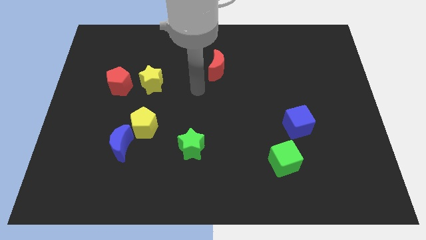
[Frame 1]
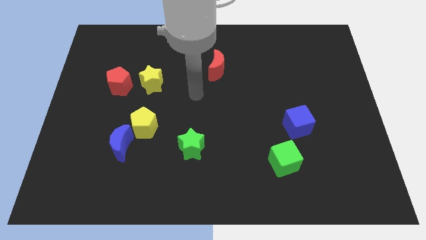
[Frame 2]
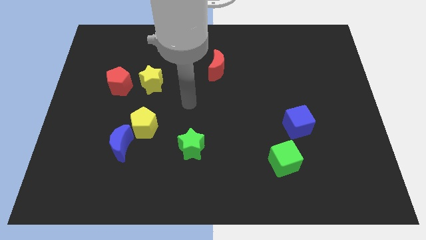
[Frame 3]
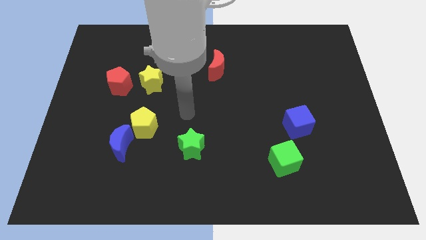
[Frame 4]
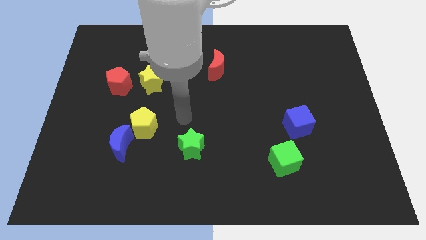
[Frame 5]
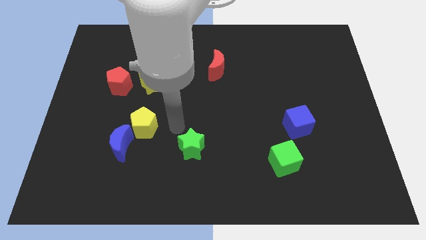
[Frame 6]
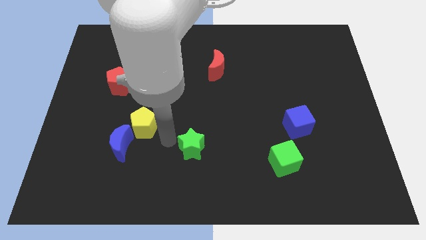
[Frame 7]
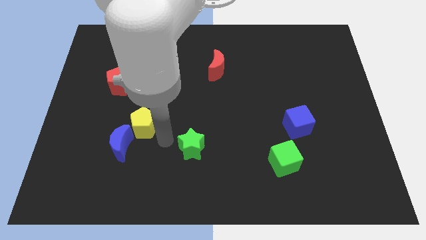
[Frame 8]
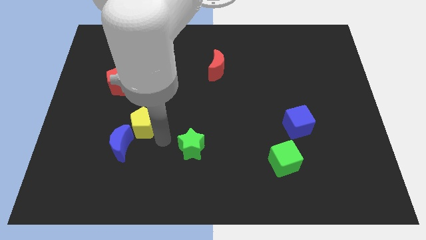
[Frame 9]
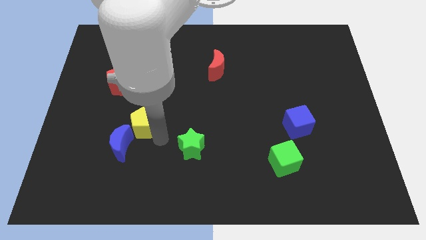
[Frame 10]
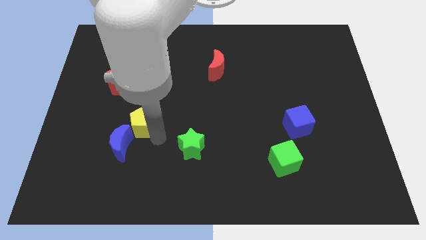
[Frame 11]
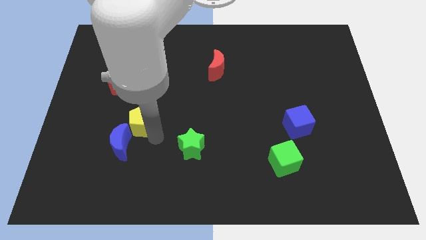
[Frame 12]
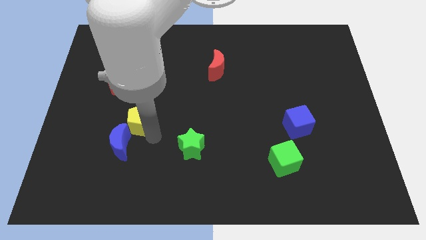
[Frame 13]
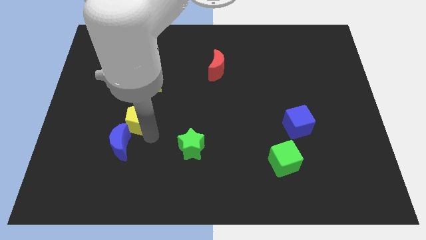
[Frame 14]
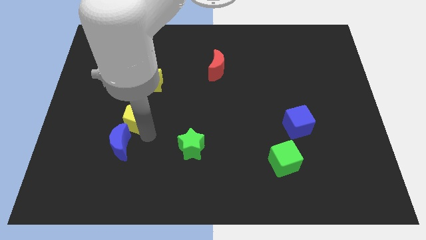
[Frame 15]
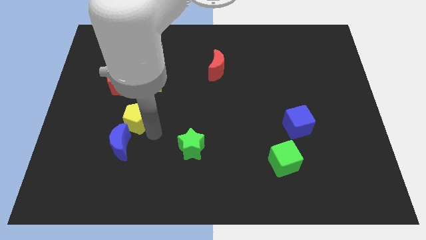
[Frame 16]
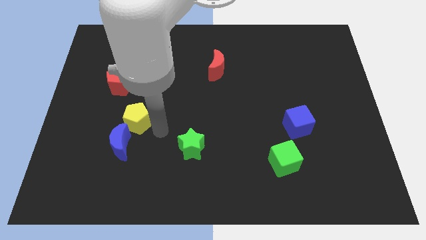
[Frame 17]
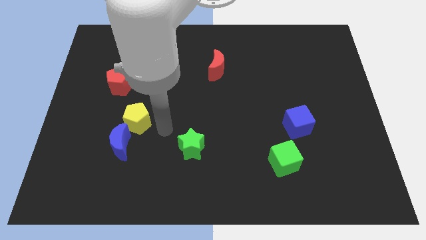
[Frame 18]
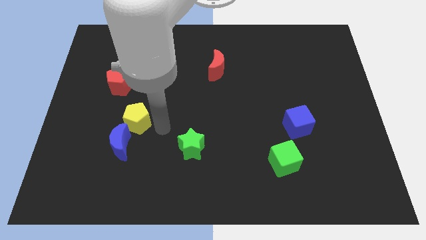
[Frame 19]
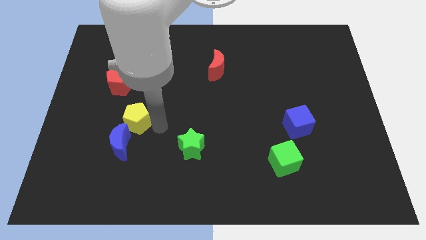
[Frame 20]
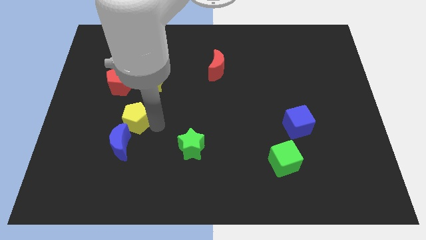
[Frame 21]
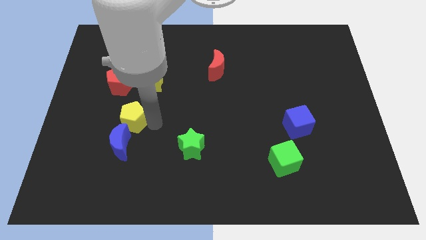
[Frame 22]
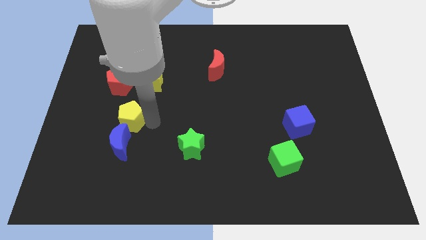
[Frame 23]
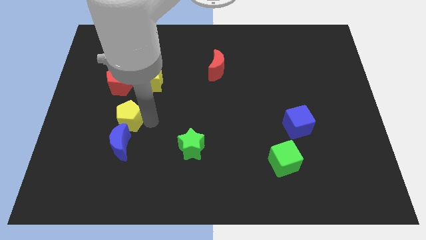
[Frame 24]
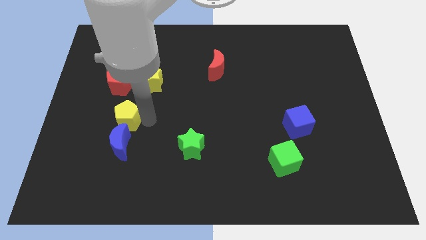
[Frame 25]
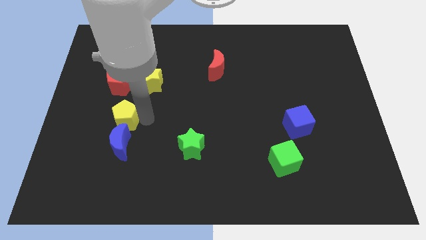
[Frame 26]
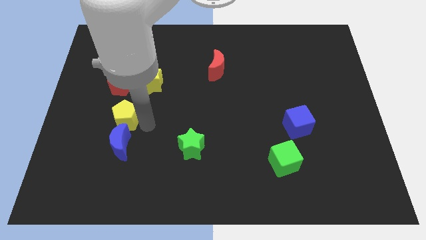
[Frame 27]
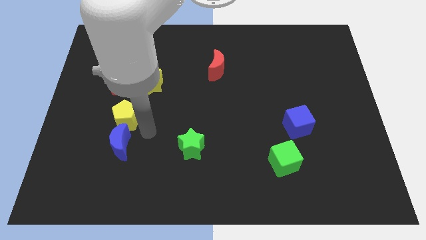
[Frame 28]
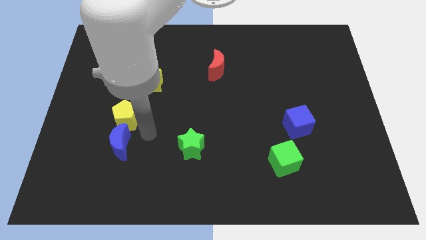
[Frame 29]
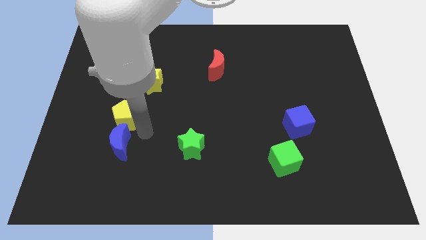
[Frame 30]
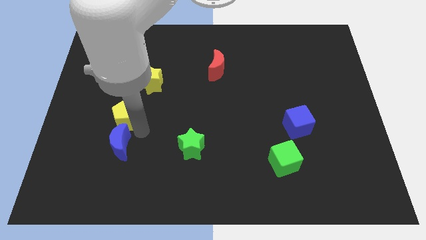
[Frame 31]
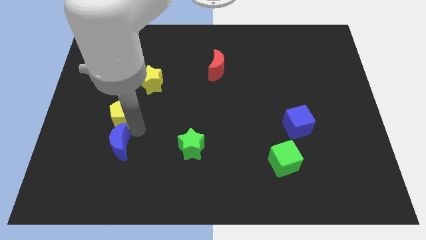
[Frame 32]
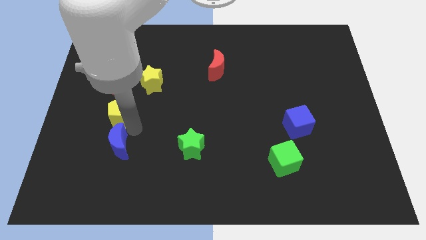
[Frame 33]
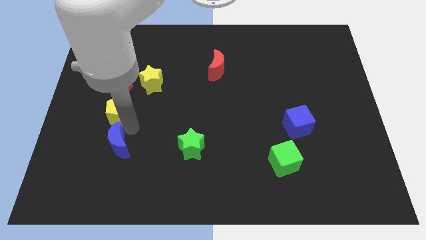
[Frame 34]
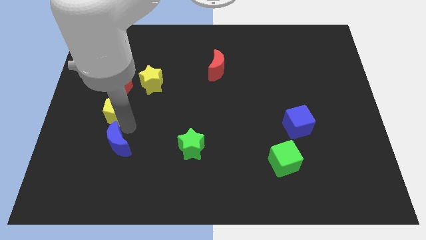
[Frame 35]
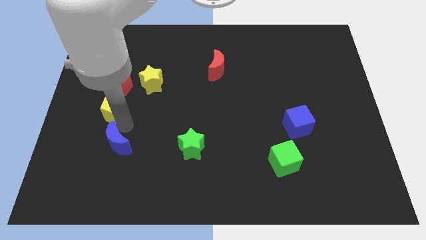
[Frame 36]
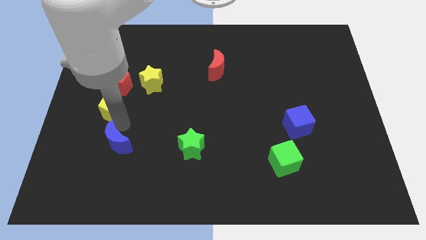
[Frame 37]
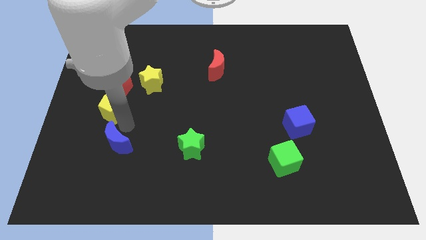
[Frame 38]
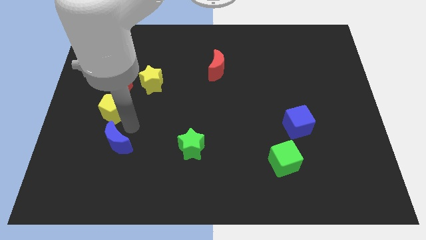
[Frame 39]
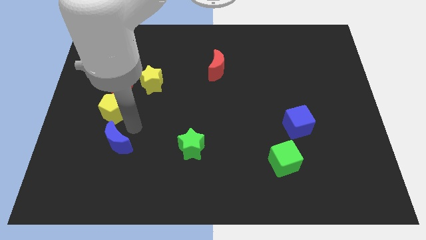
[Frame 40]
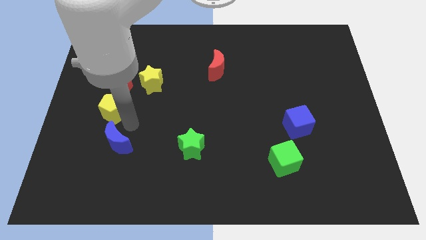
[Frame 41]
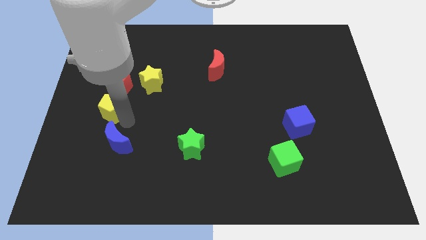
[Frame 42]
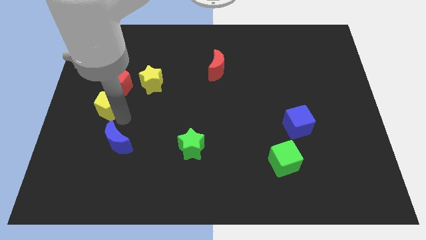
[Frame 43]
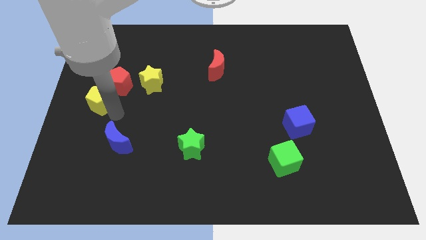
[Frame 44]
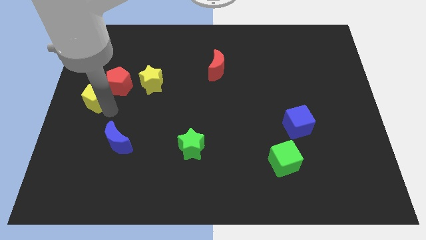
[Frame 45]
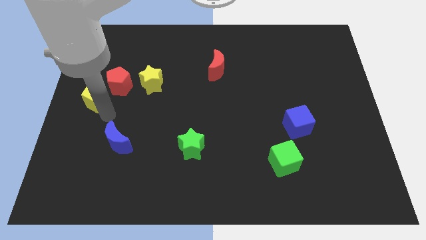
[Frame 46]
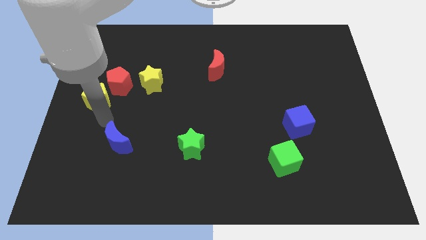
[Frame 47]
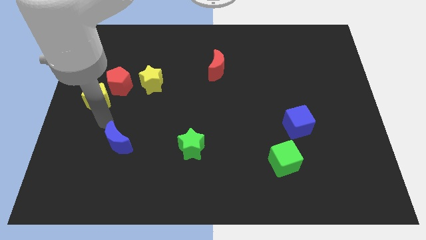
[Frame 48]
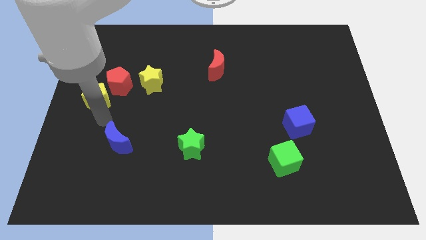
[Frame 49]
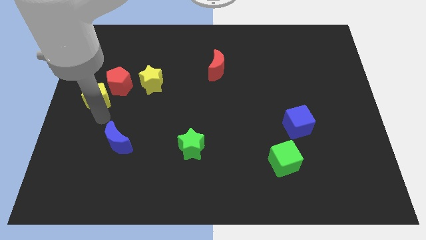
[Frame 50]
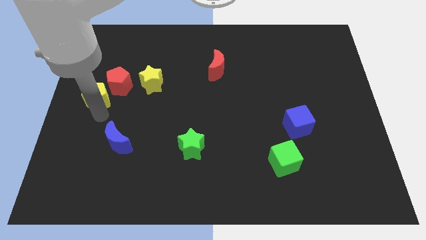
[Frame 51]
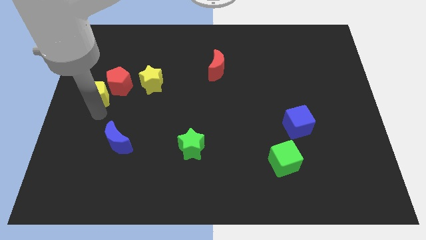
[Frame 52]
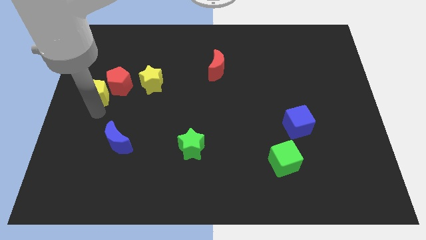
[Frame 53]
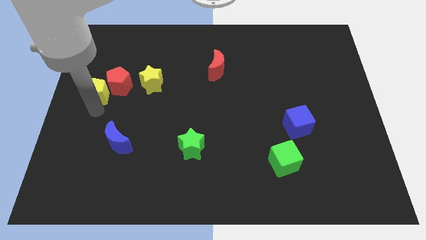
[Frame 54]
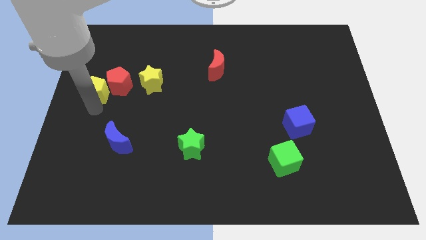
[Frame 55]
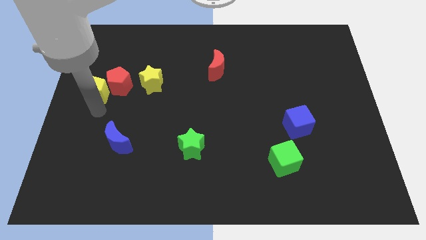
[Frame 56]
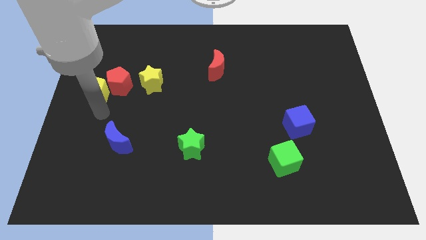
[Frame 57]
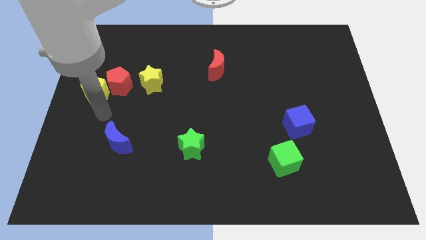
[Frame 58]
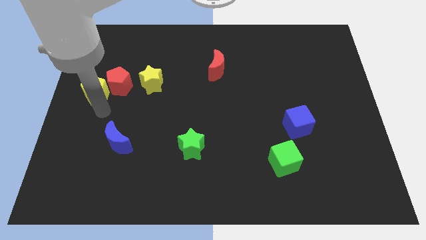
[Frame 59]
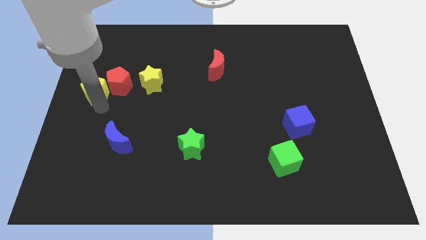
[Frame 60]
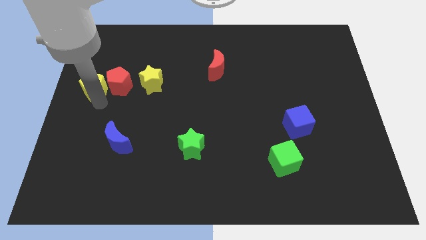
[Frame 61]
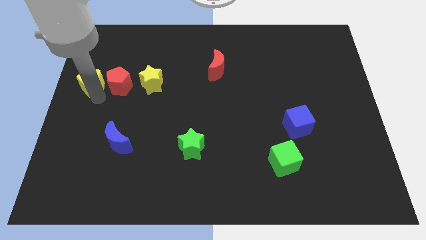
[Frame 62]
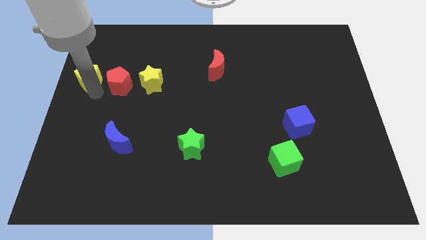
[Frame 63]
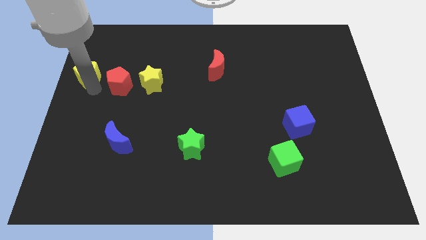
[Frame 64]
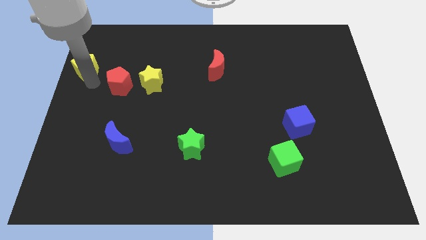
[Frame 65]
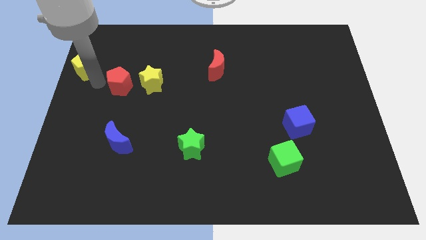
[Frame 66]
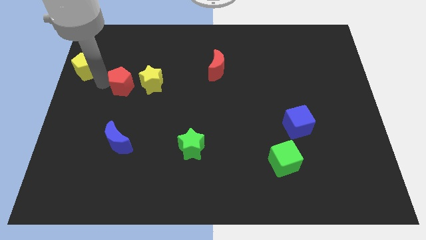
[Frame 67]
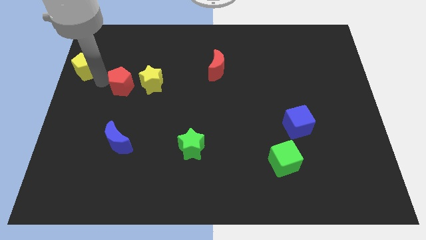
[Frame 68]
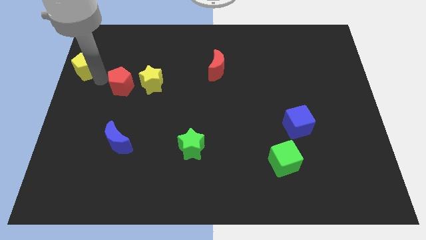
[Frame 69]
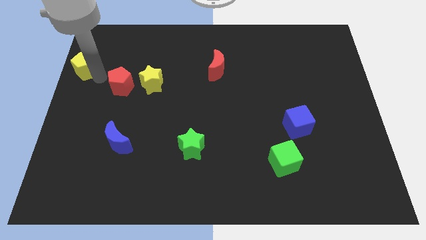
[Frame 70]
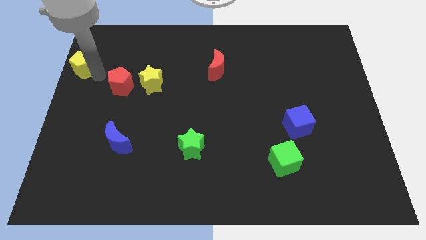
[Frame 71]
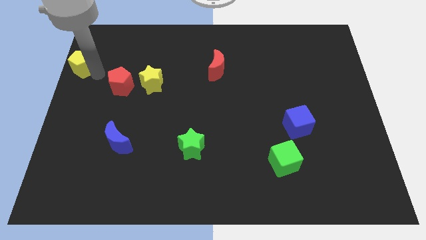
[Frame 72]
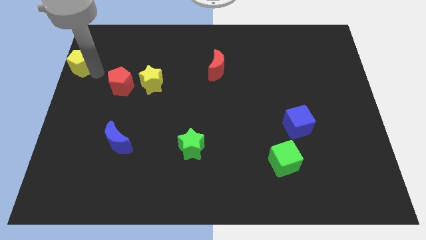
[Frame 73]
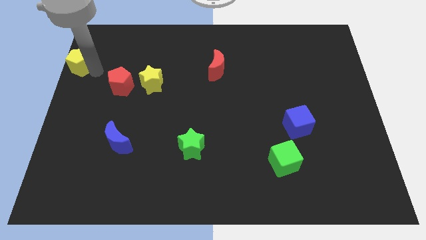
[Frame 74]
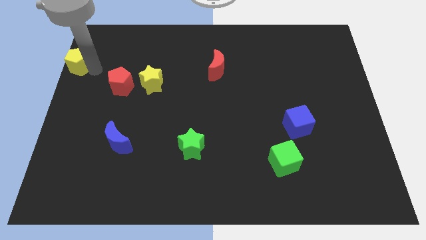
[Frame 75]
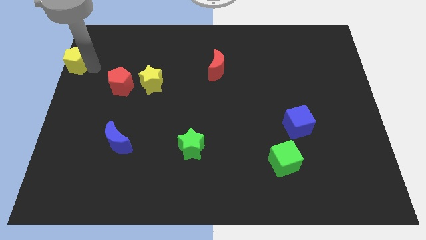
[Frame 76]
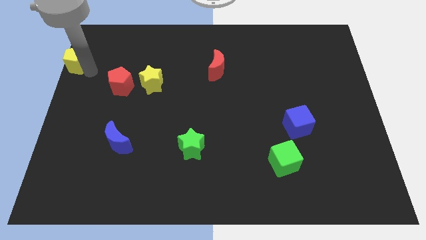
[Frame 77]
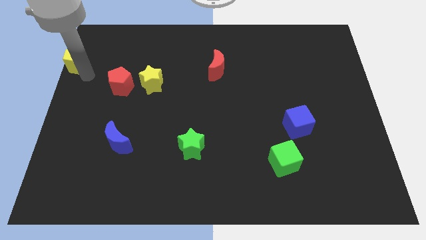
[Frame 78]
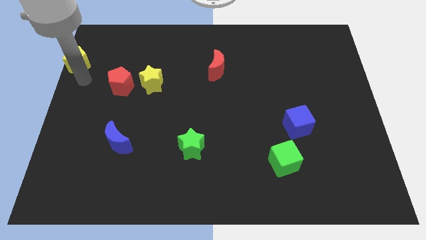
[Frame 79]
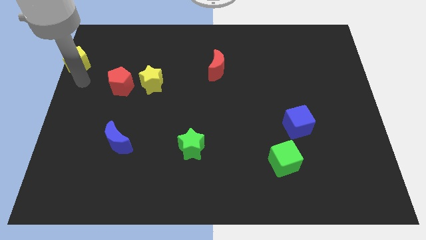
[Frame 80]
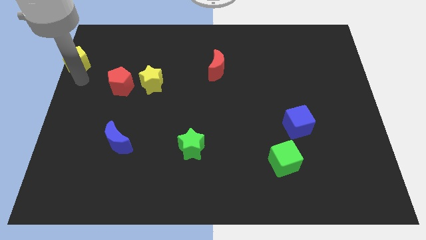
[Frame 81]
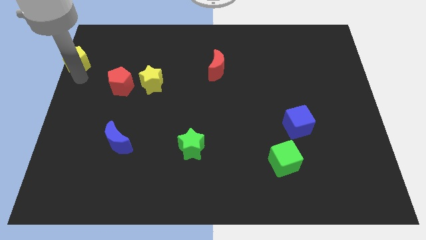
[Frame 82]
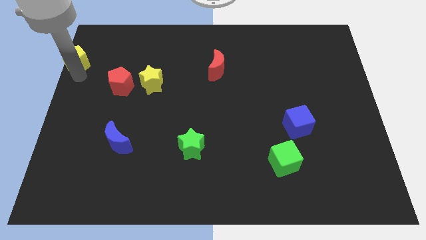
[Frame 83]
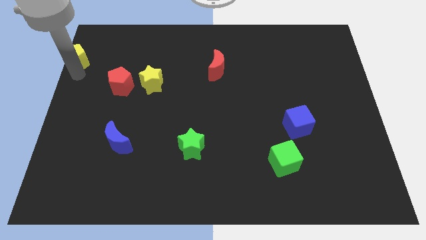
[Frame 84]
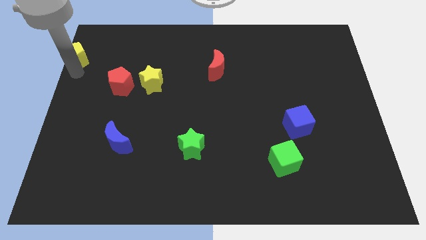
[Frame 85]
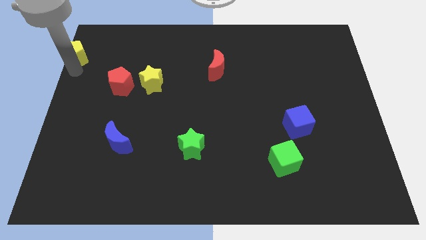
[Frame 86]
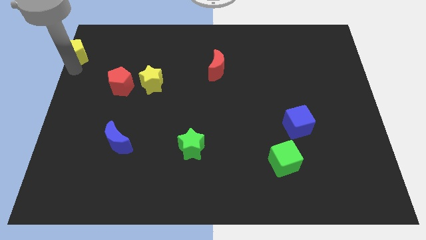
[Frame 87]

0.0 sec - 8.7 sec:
push the yellow pentagon to the upper left corner
